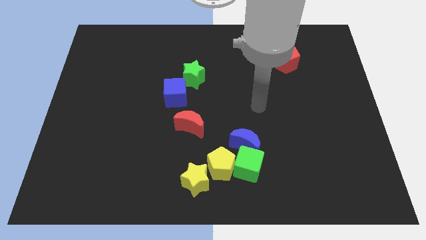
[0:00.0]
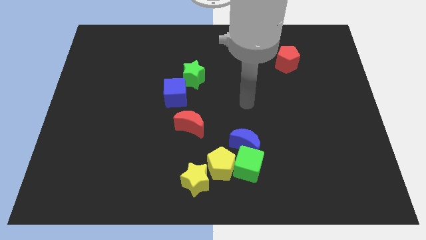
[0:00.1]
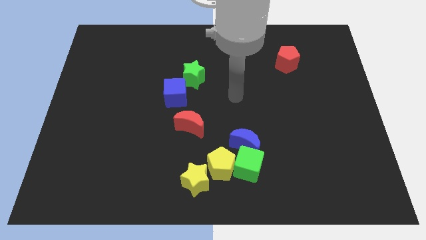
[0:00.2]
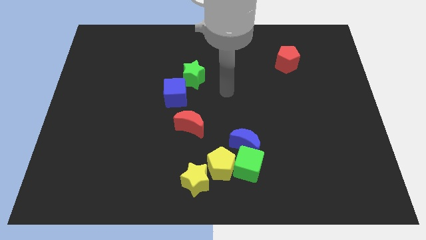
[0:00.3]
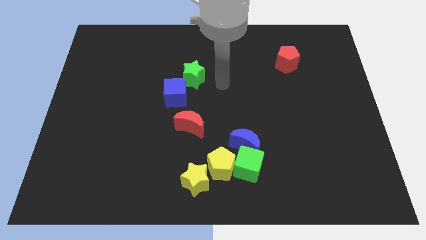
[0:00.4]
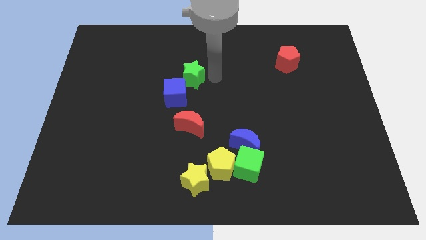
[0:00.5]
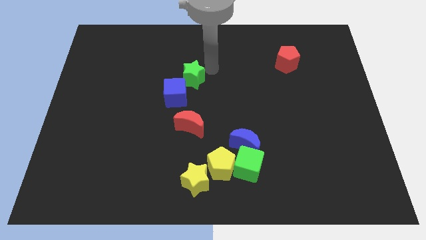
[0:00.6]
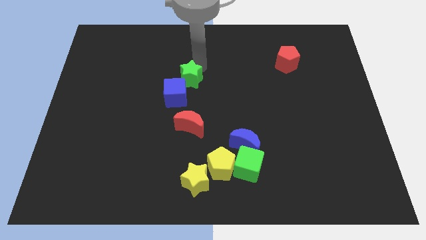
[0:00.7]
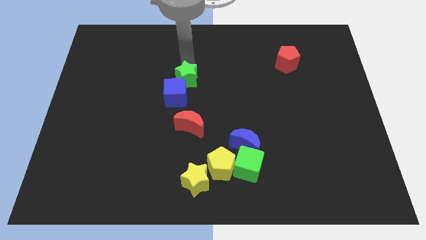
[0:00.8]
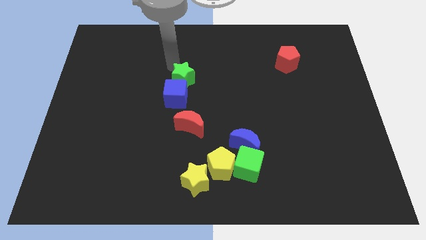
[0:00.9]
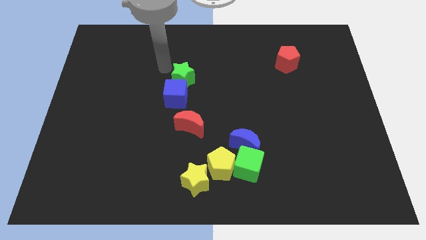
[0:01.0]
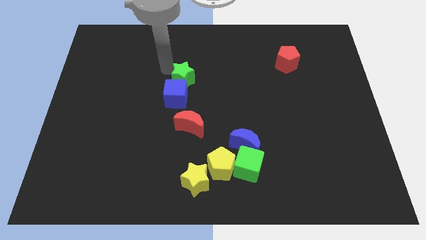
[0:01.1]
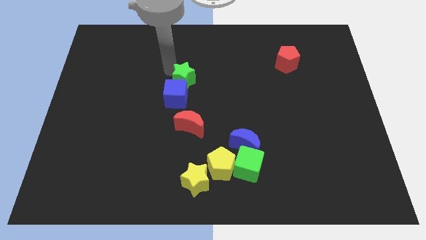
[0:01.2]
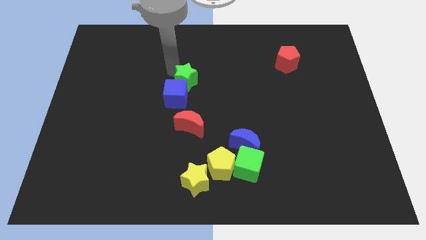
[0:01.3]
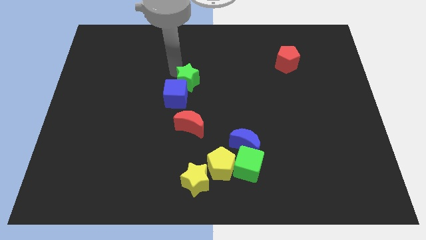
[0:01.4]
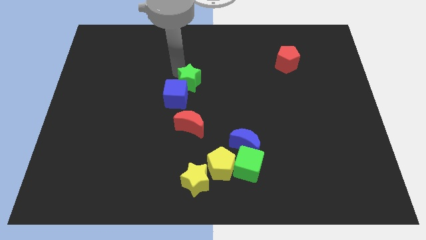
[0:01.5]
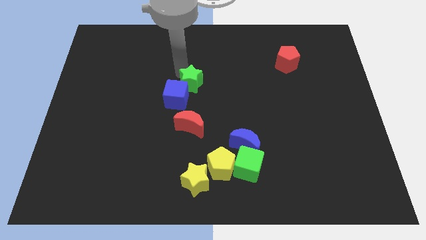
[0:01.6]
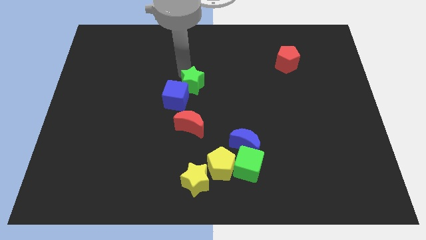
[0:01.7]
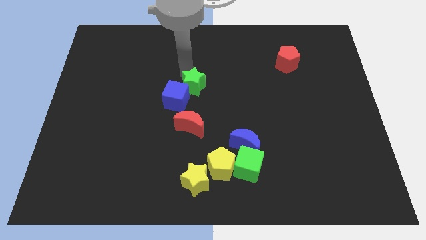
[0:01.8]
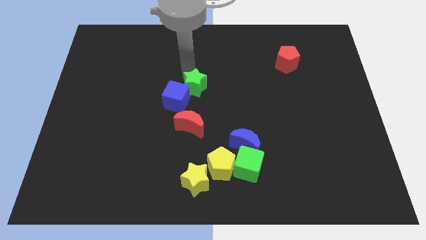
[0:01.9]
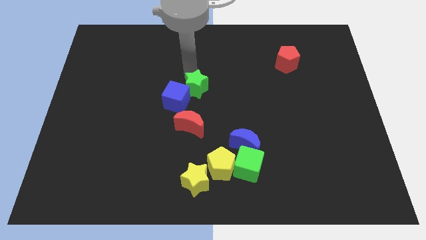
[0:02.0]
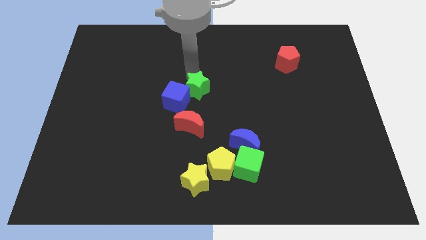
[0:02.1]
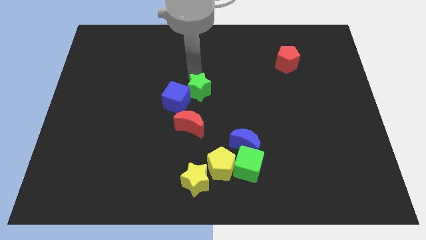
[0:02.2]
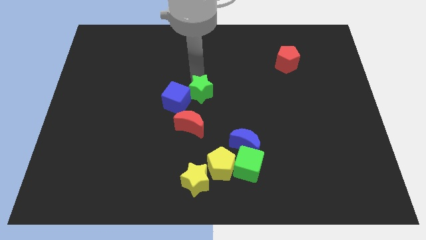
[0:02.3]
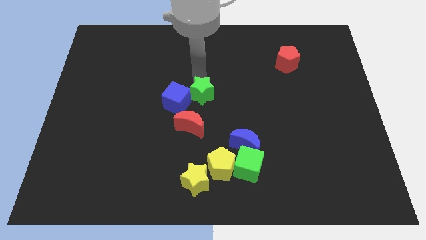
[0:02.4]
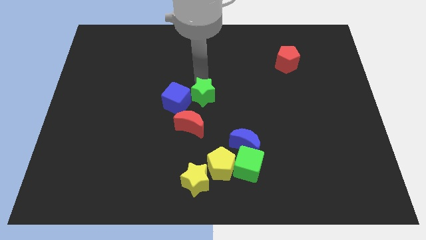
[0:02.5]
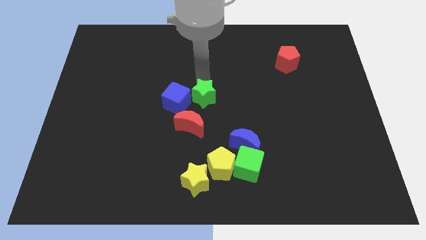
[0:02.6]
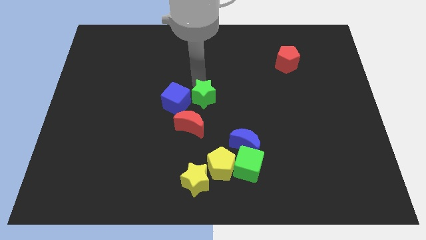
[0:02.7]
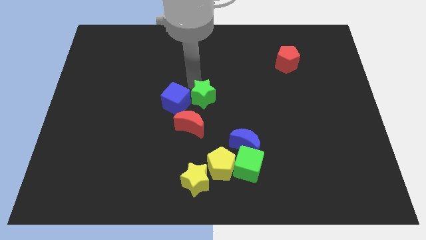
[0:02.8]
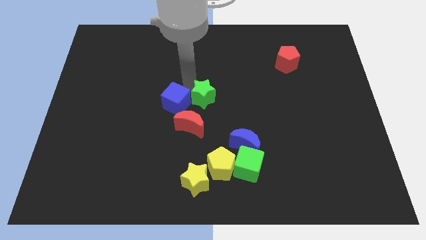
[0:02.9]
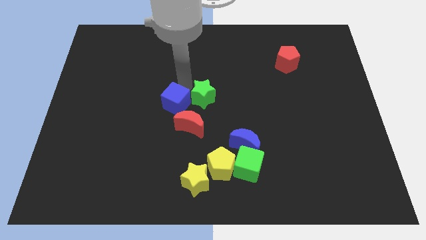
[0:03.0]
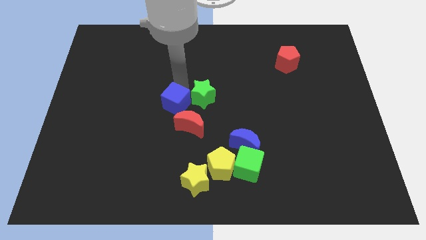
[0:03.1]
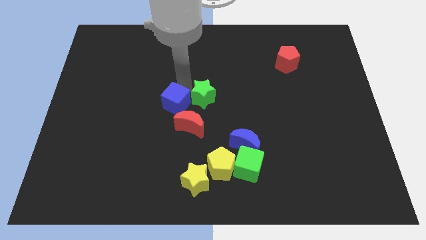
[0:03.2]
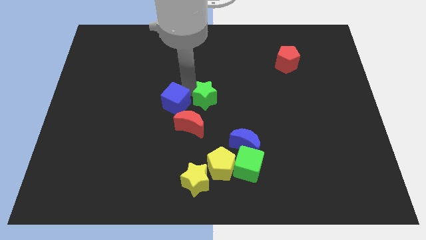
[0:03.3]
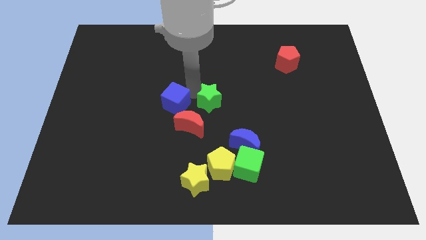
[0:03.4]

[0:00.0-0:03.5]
slightly slide the green star down and to the right

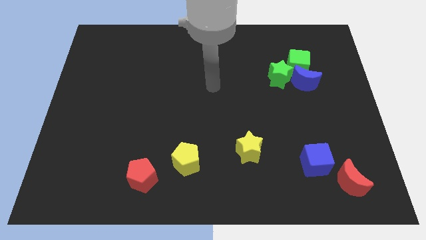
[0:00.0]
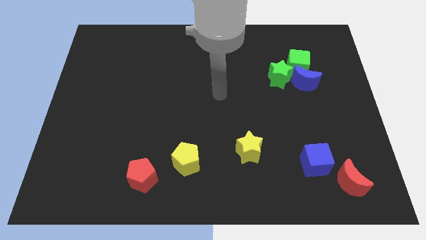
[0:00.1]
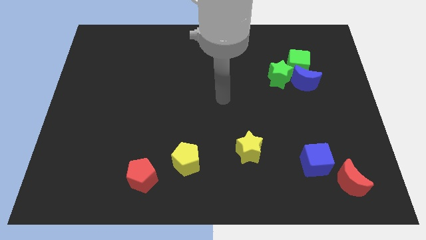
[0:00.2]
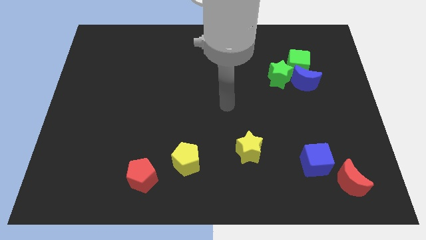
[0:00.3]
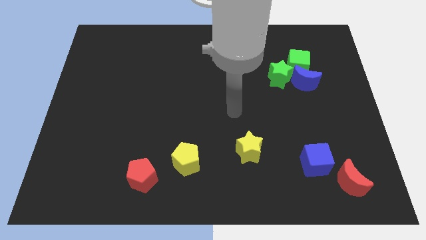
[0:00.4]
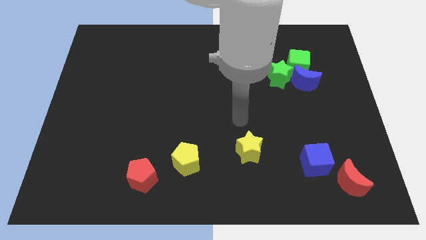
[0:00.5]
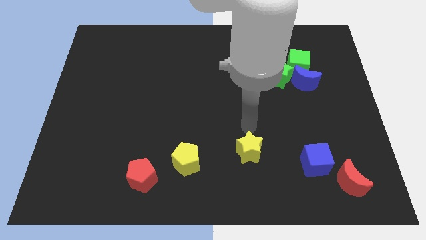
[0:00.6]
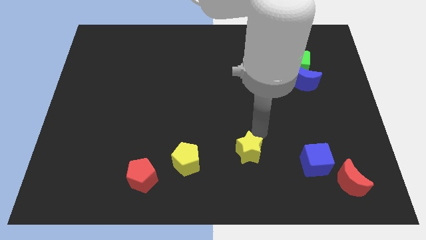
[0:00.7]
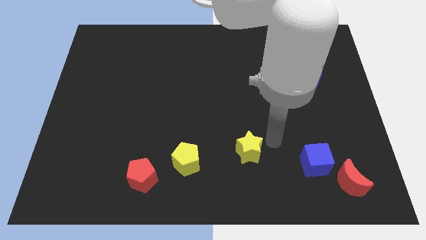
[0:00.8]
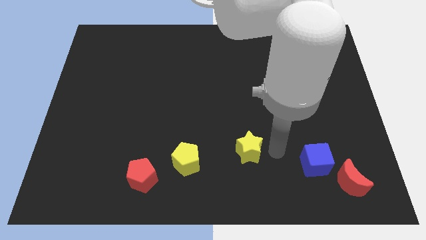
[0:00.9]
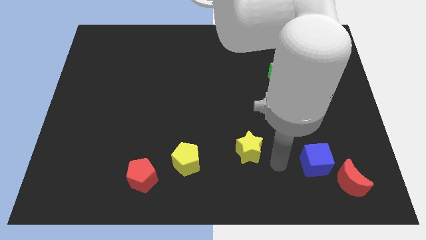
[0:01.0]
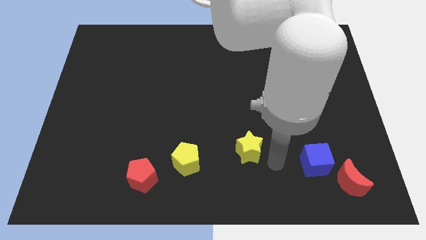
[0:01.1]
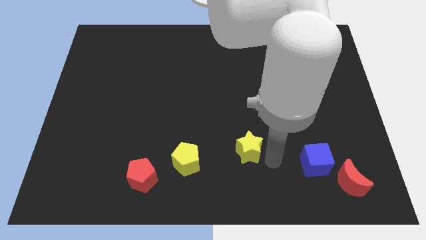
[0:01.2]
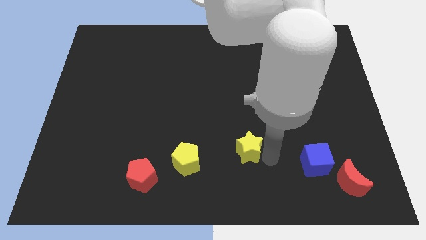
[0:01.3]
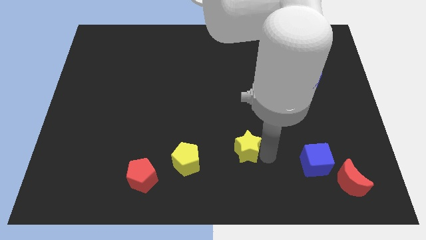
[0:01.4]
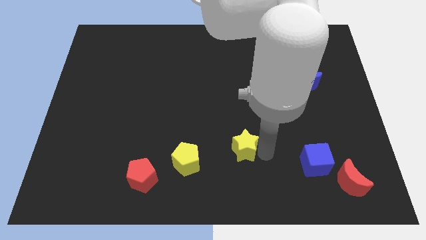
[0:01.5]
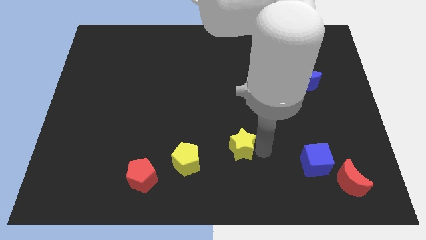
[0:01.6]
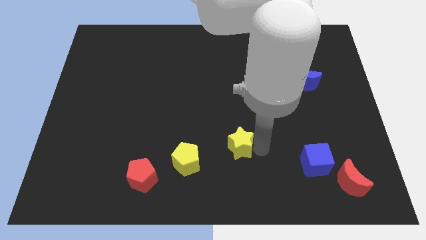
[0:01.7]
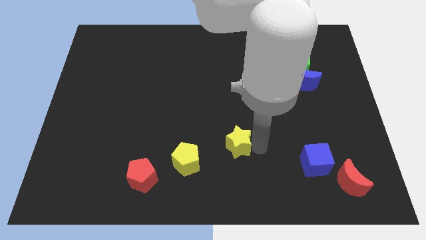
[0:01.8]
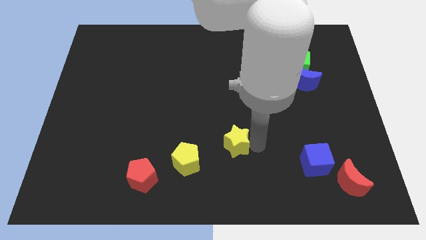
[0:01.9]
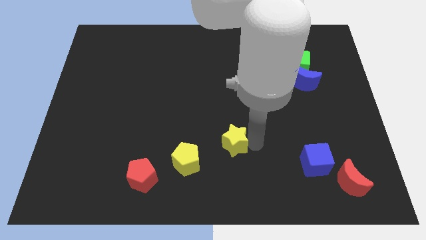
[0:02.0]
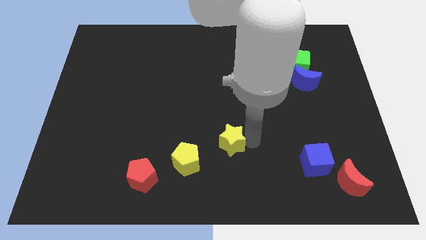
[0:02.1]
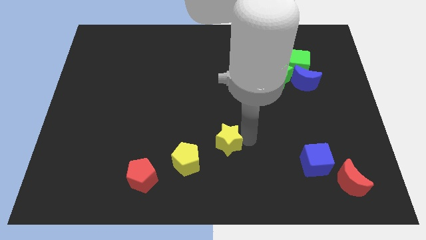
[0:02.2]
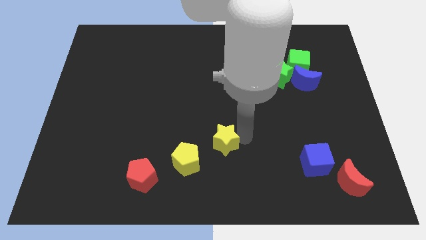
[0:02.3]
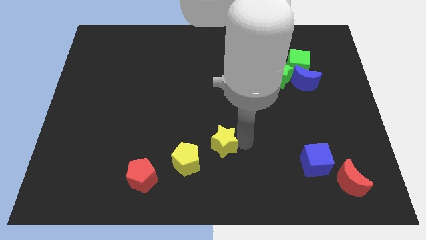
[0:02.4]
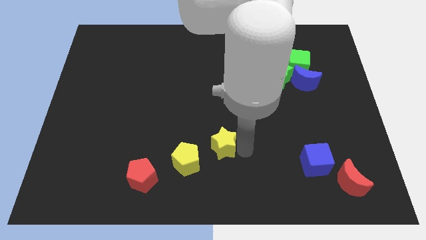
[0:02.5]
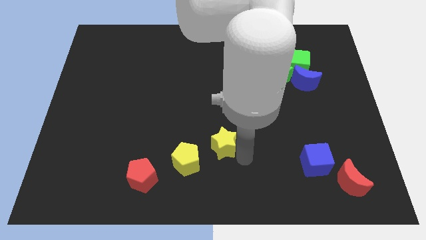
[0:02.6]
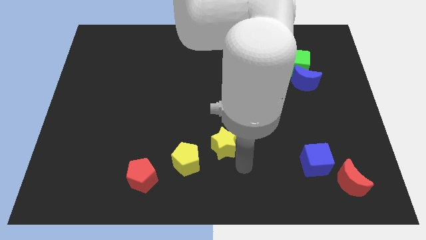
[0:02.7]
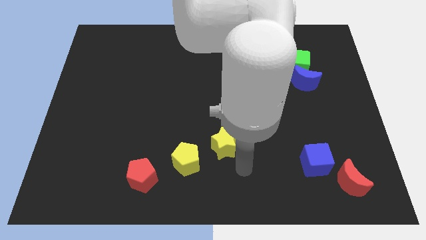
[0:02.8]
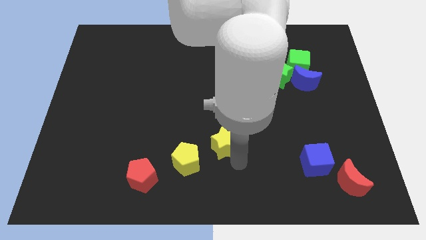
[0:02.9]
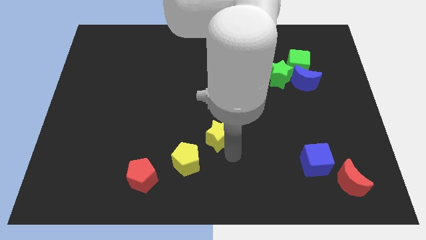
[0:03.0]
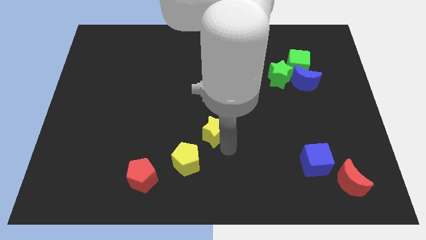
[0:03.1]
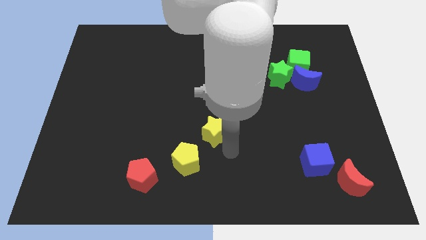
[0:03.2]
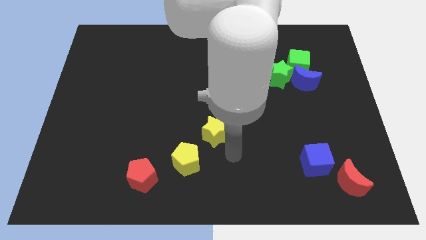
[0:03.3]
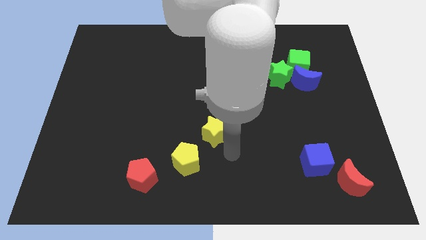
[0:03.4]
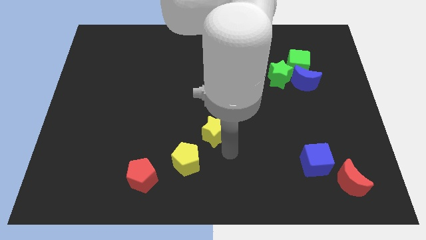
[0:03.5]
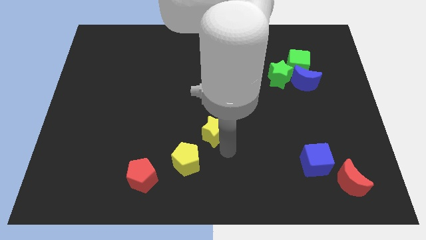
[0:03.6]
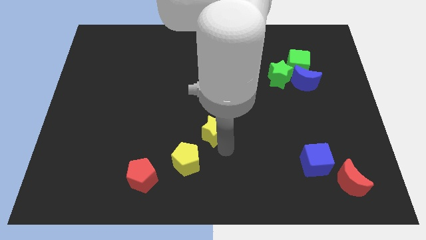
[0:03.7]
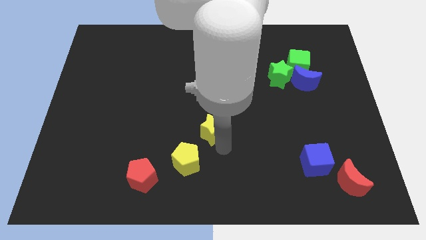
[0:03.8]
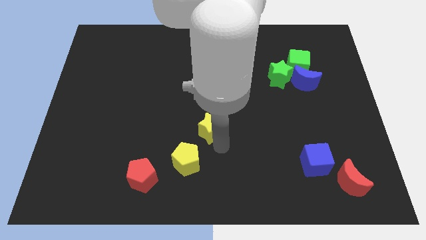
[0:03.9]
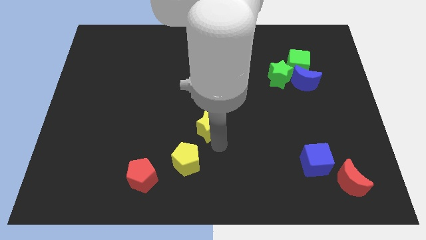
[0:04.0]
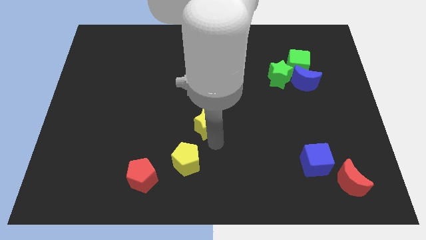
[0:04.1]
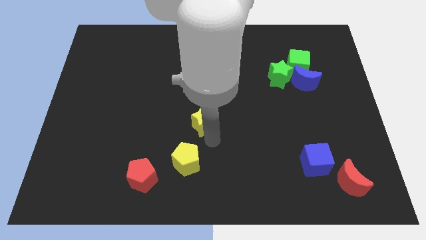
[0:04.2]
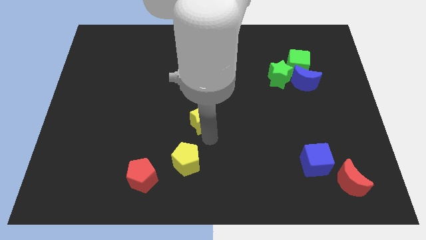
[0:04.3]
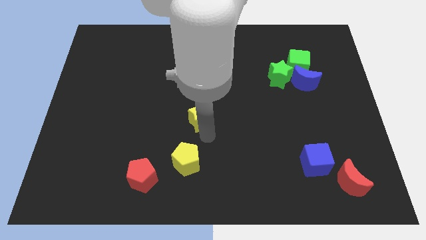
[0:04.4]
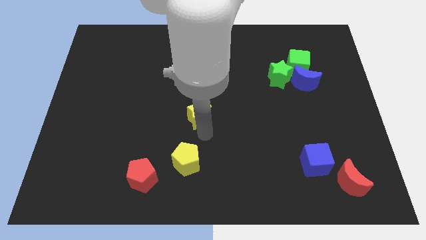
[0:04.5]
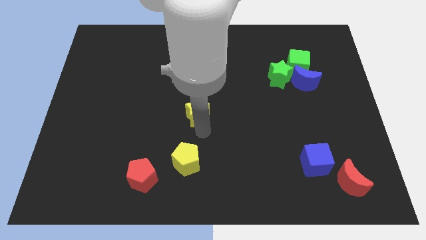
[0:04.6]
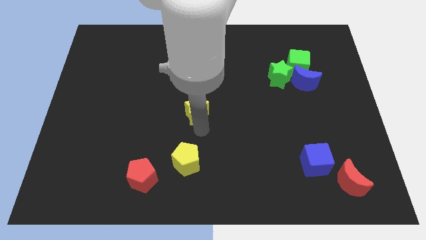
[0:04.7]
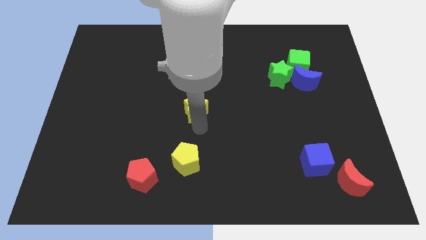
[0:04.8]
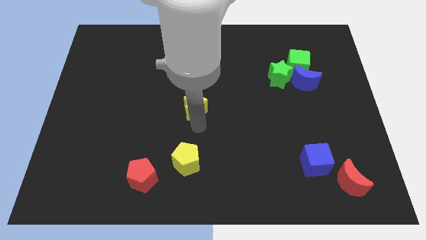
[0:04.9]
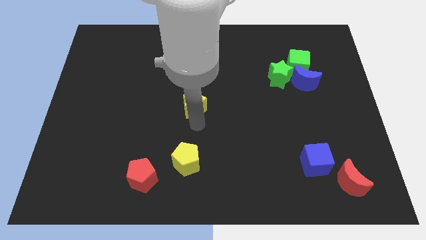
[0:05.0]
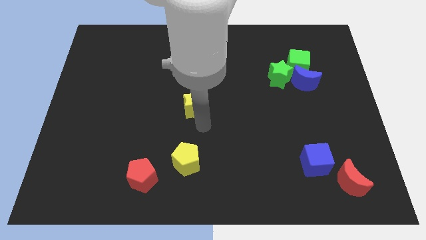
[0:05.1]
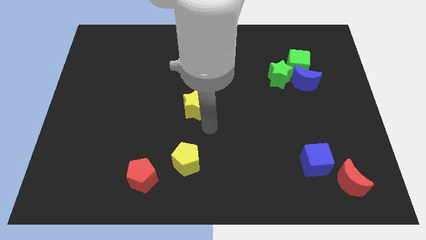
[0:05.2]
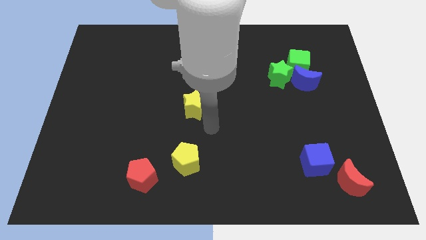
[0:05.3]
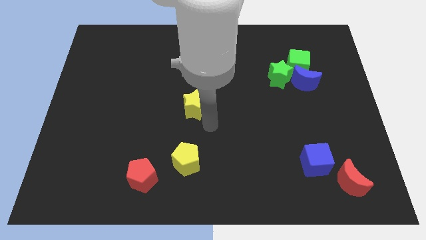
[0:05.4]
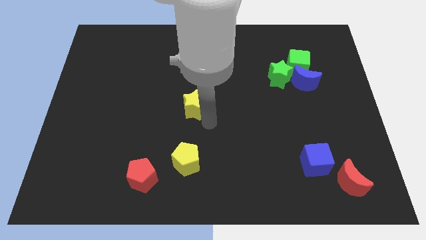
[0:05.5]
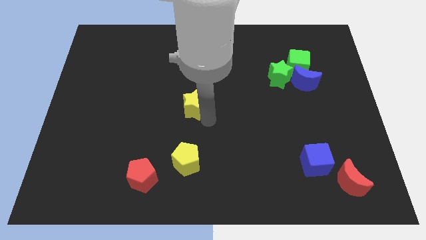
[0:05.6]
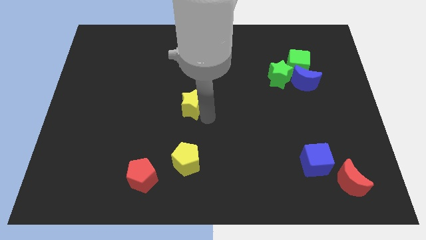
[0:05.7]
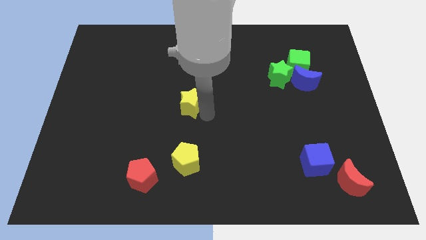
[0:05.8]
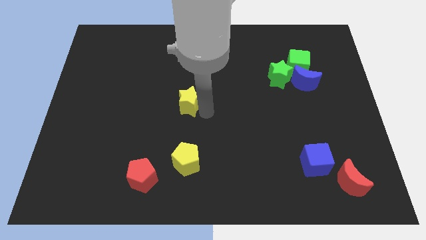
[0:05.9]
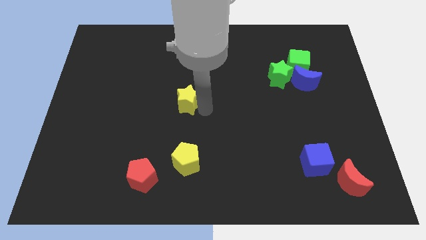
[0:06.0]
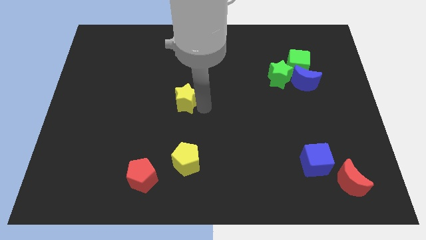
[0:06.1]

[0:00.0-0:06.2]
slide the yellow star up and left diagonally
